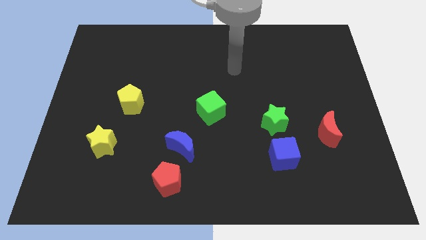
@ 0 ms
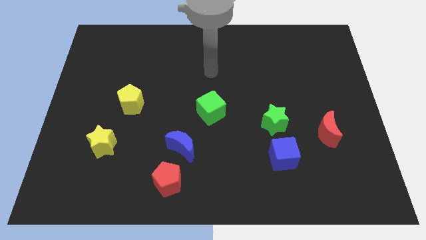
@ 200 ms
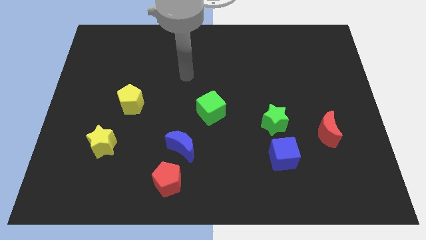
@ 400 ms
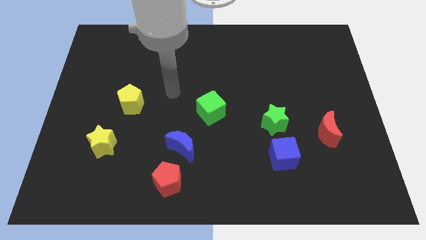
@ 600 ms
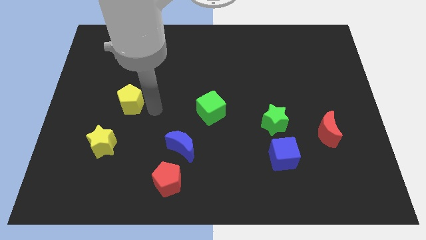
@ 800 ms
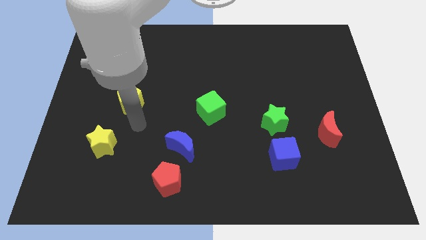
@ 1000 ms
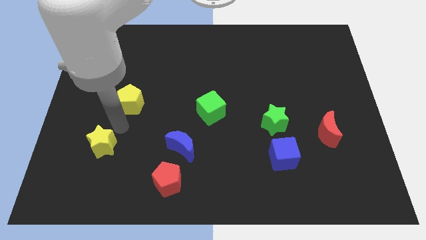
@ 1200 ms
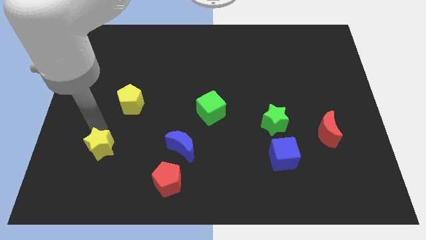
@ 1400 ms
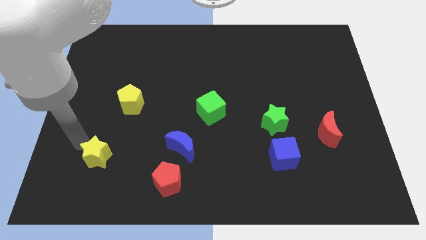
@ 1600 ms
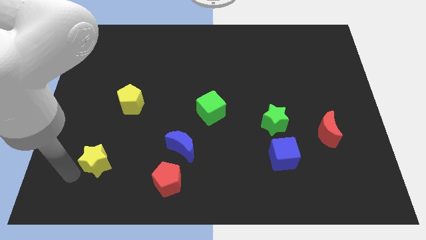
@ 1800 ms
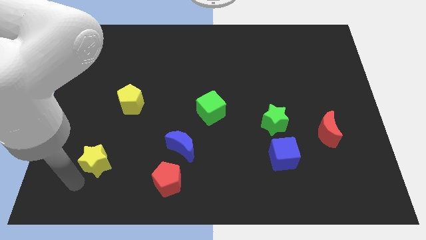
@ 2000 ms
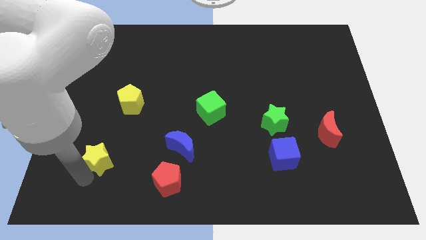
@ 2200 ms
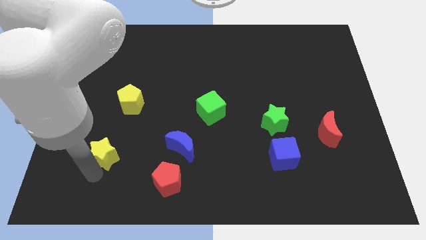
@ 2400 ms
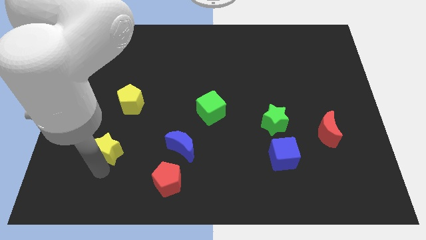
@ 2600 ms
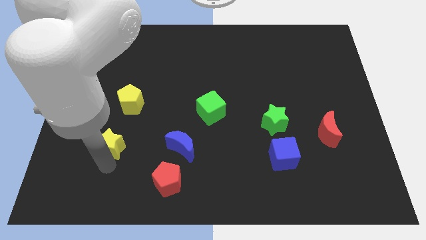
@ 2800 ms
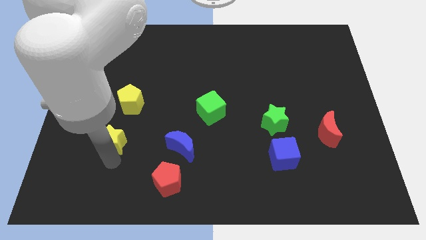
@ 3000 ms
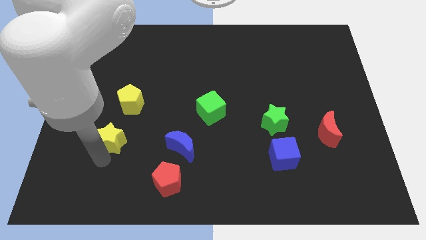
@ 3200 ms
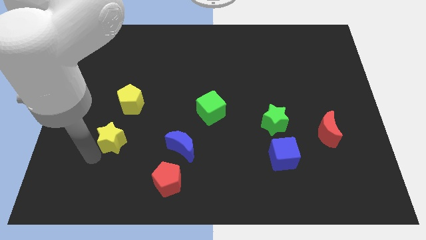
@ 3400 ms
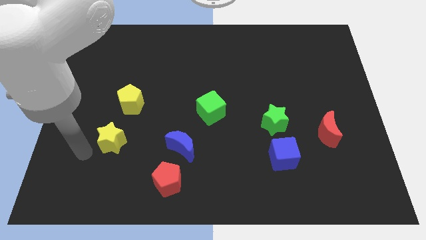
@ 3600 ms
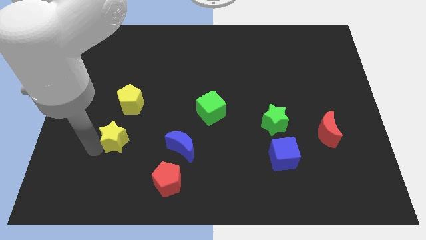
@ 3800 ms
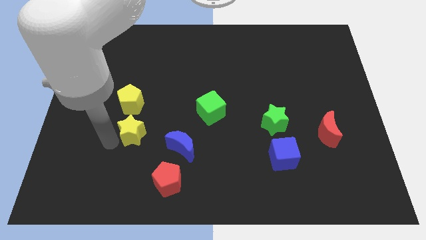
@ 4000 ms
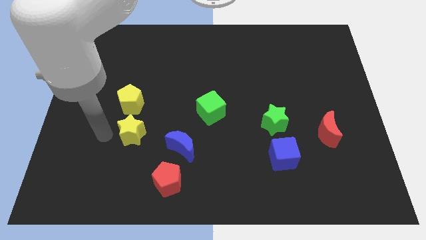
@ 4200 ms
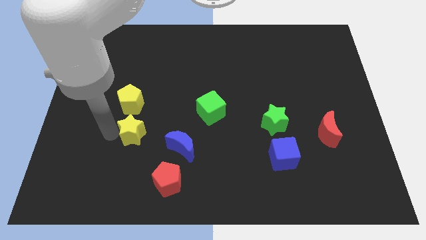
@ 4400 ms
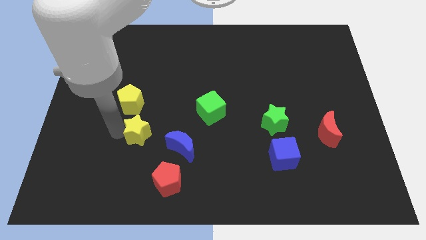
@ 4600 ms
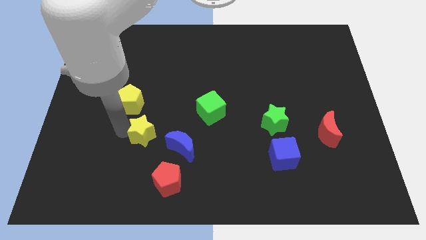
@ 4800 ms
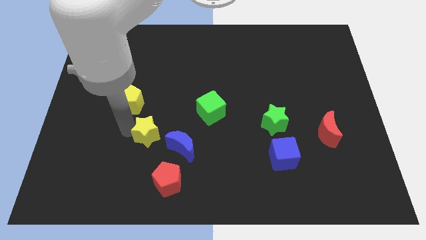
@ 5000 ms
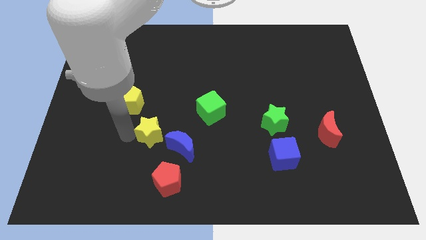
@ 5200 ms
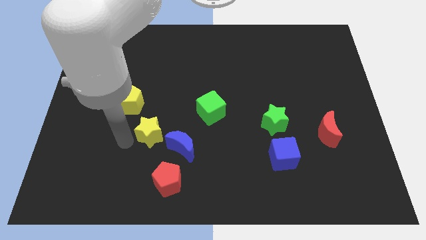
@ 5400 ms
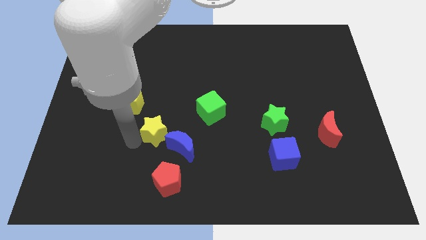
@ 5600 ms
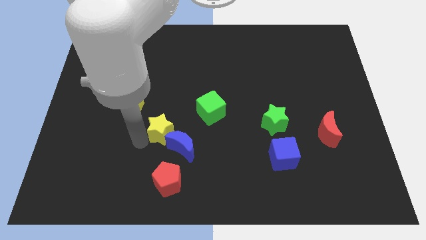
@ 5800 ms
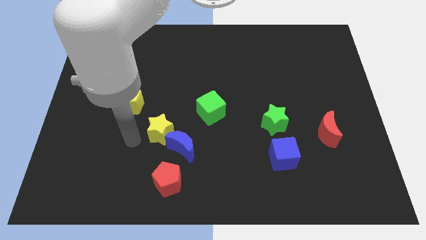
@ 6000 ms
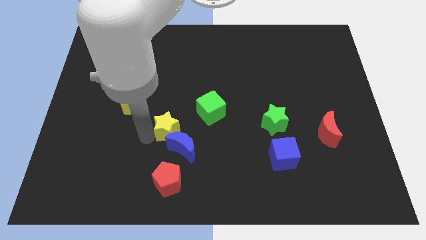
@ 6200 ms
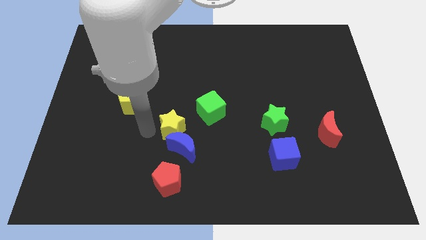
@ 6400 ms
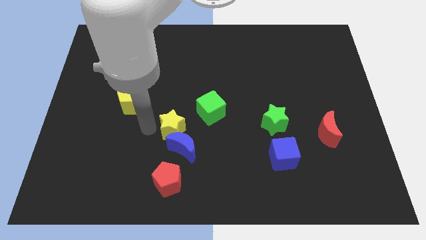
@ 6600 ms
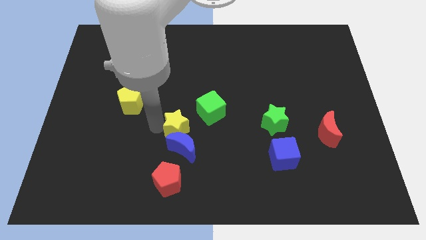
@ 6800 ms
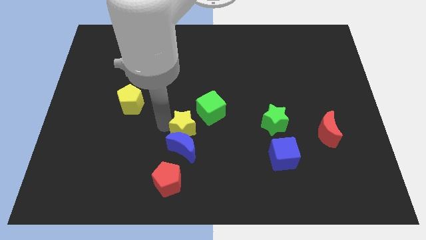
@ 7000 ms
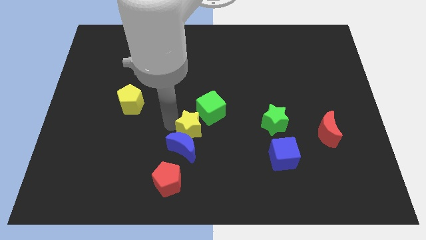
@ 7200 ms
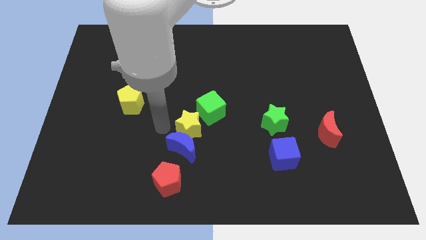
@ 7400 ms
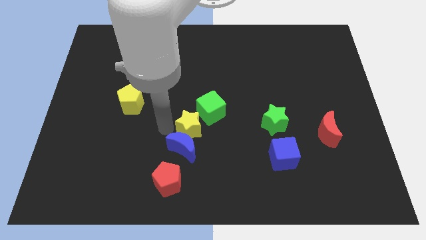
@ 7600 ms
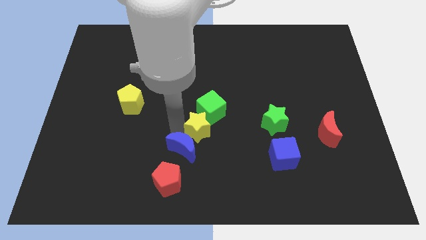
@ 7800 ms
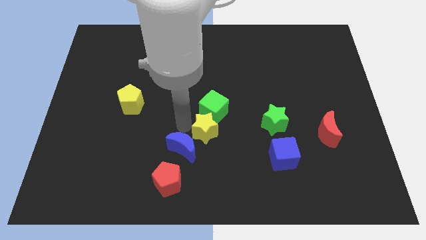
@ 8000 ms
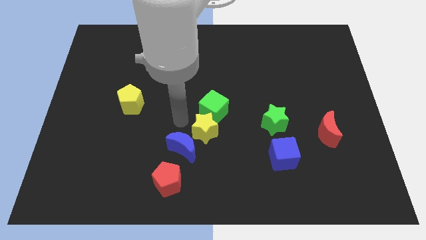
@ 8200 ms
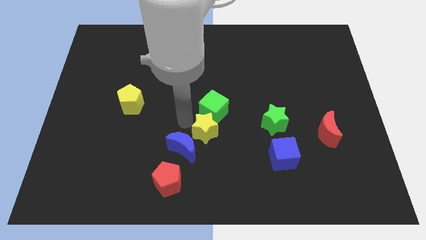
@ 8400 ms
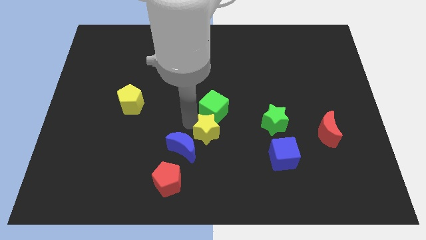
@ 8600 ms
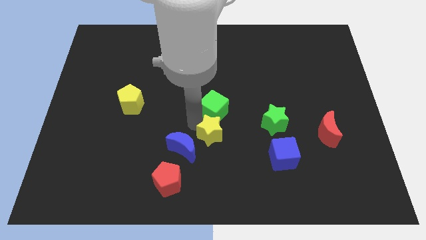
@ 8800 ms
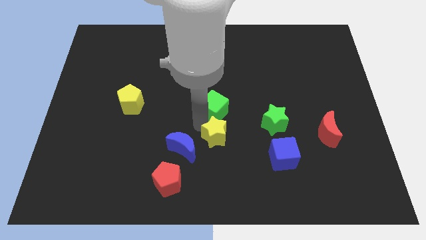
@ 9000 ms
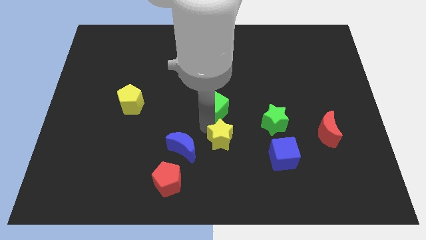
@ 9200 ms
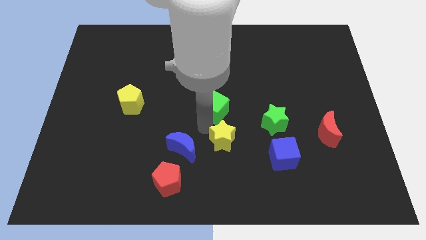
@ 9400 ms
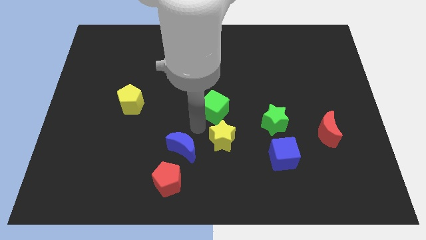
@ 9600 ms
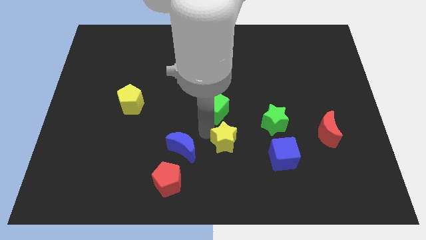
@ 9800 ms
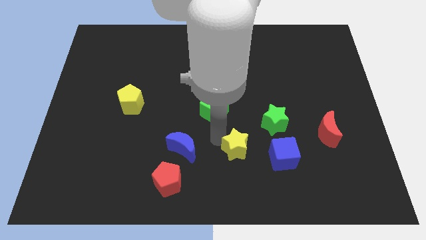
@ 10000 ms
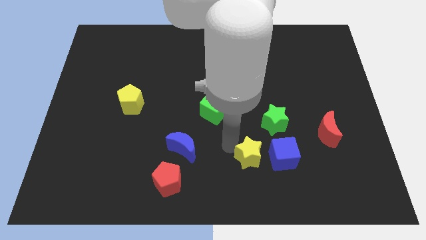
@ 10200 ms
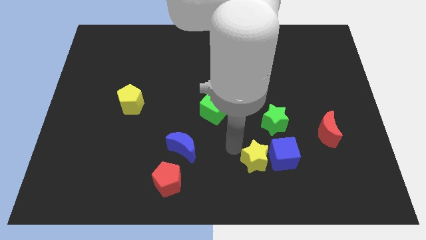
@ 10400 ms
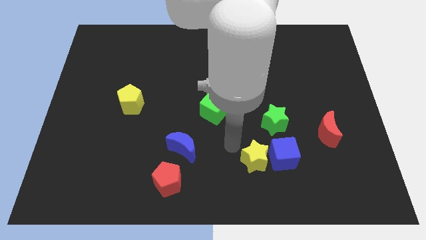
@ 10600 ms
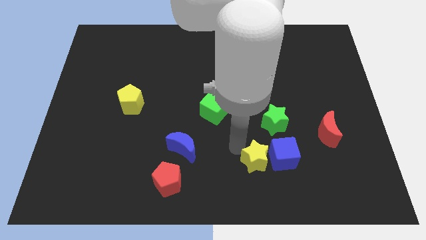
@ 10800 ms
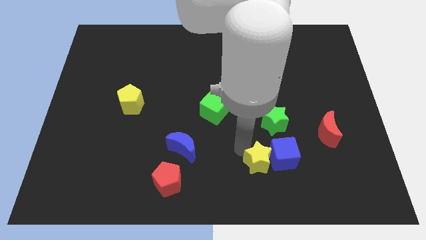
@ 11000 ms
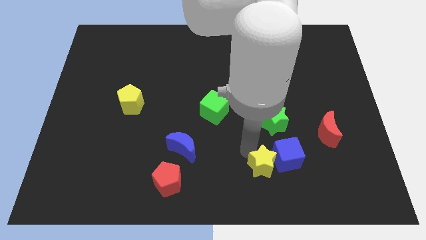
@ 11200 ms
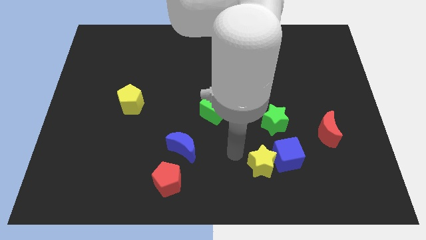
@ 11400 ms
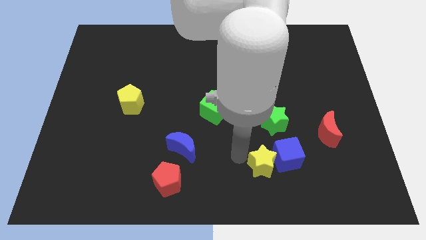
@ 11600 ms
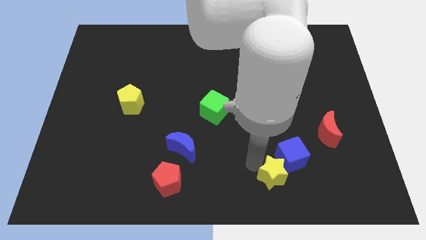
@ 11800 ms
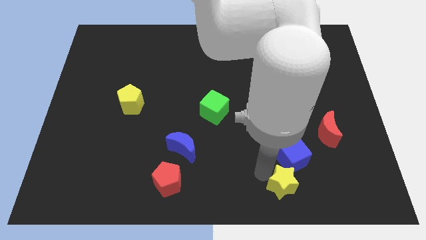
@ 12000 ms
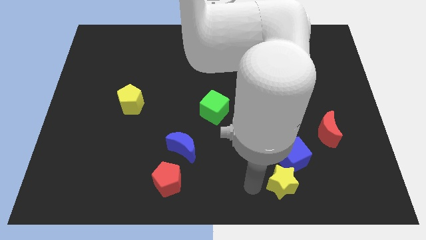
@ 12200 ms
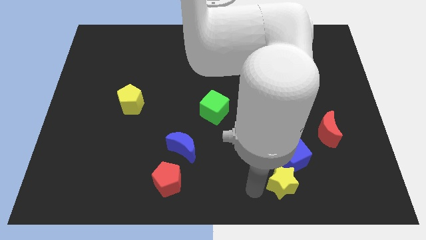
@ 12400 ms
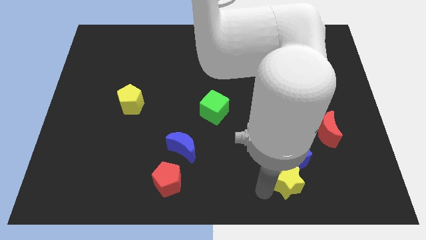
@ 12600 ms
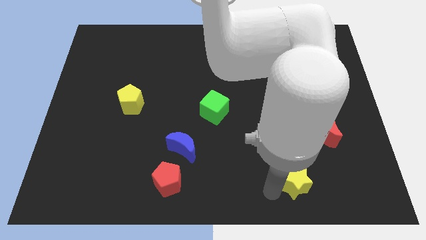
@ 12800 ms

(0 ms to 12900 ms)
push the yellow star diagonally down and to the right of the blue cube

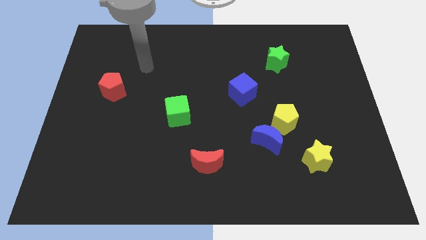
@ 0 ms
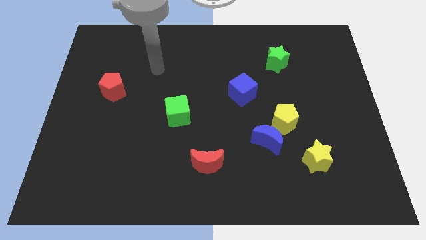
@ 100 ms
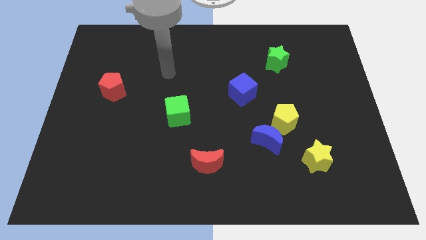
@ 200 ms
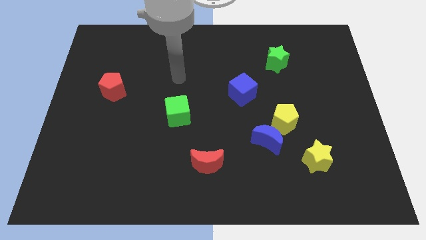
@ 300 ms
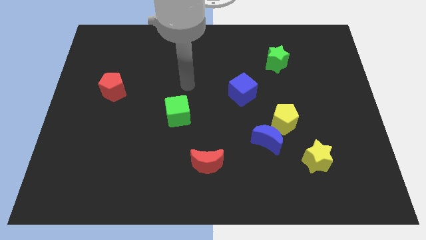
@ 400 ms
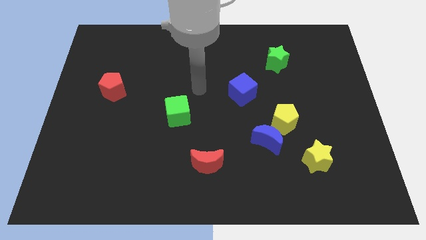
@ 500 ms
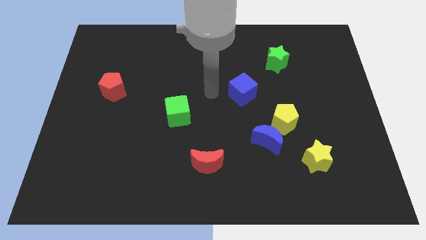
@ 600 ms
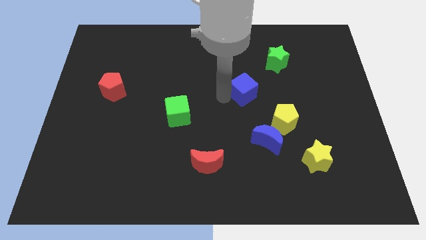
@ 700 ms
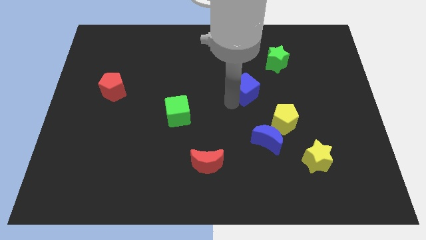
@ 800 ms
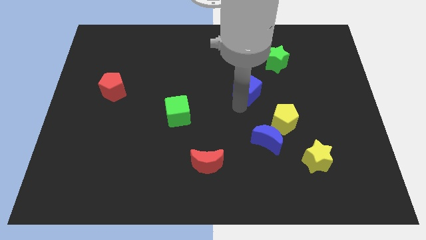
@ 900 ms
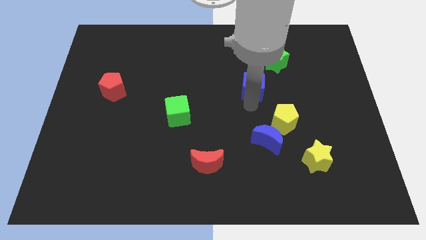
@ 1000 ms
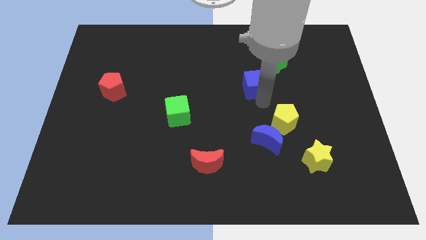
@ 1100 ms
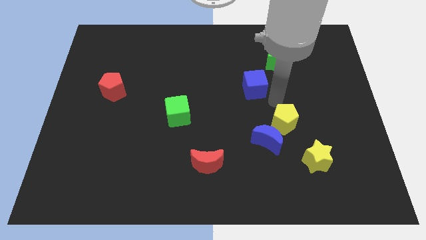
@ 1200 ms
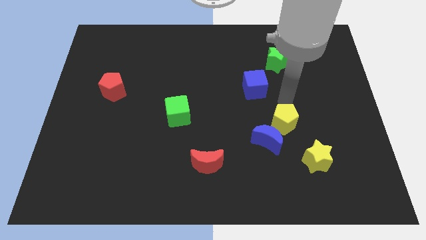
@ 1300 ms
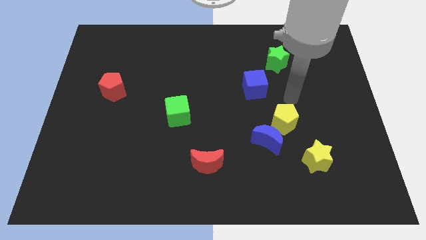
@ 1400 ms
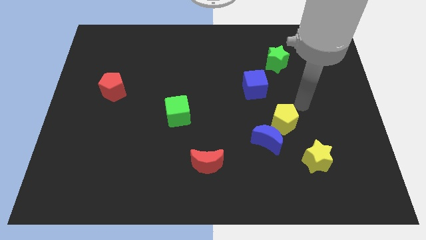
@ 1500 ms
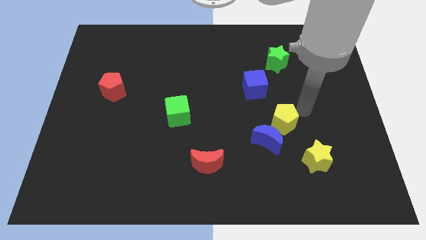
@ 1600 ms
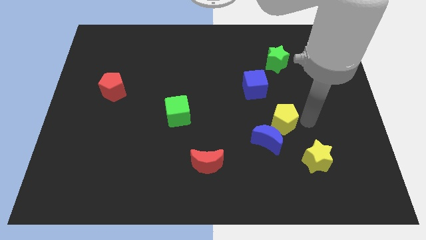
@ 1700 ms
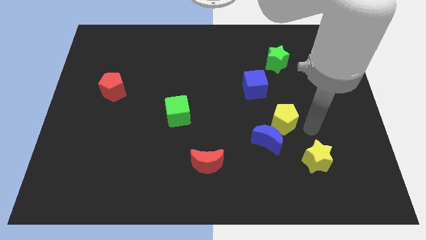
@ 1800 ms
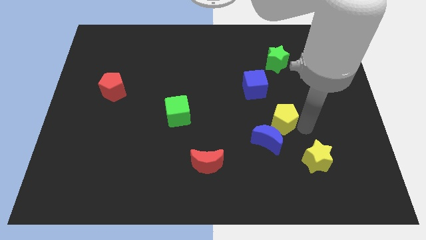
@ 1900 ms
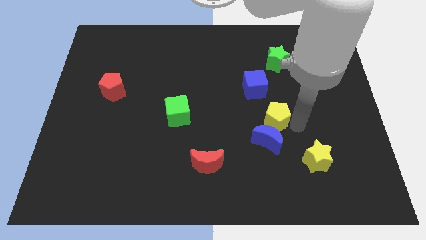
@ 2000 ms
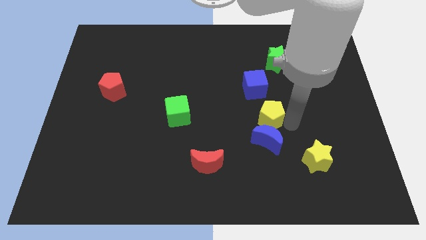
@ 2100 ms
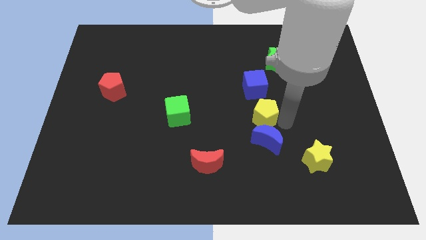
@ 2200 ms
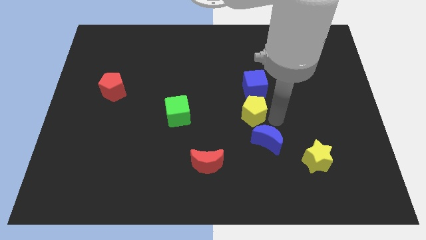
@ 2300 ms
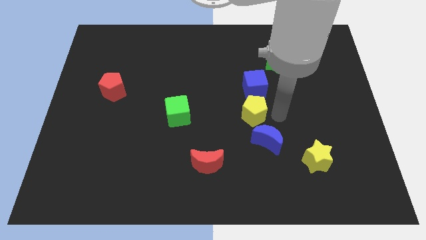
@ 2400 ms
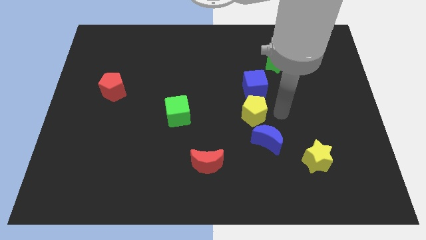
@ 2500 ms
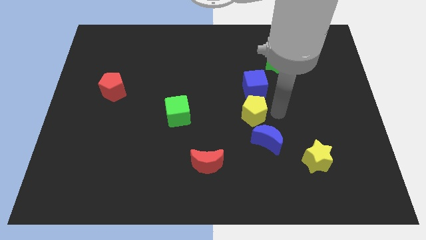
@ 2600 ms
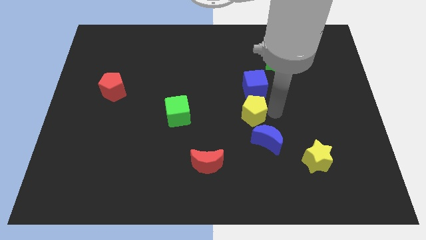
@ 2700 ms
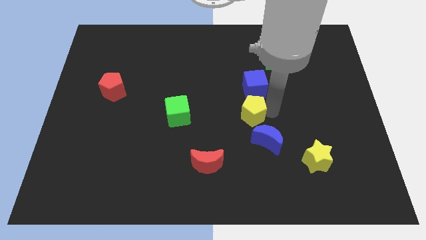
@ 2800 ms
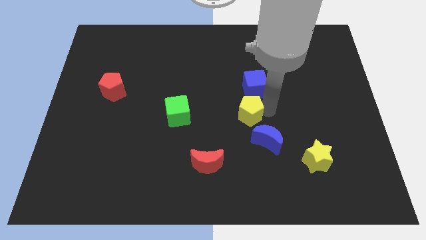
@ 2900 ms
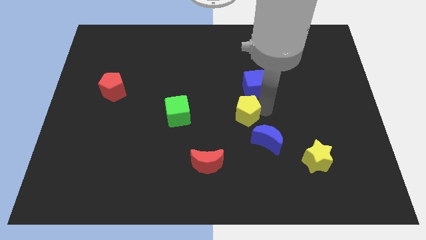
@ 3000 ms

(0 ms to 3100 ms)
move the yellow pentagon right of the green cube
